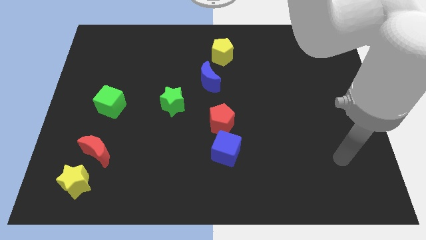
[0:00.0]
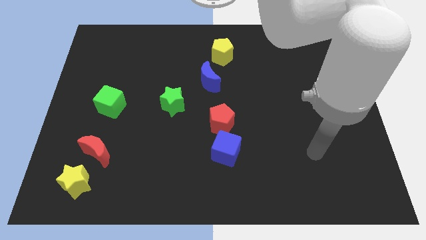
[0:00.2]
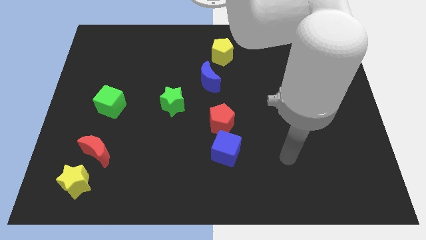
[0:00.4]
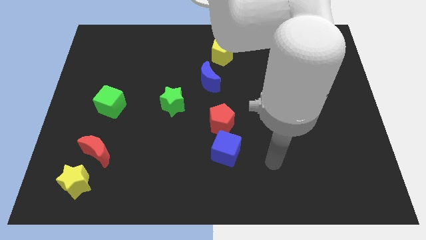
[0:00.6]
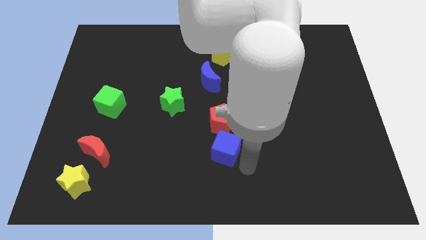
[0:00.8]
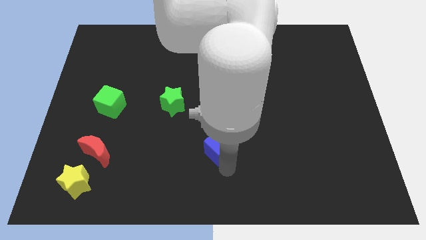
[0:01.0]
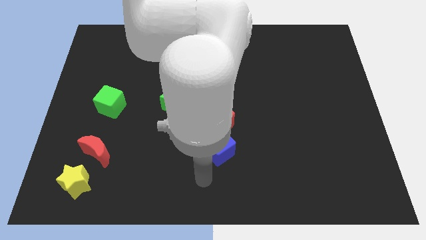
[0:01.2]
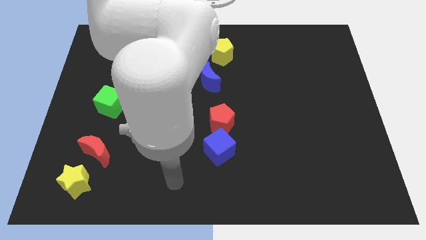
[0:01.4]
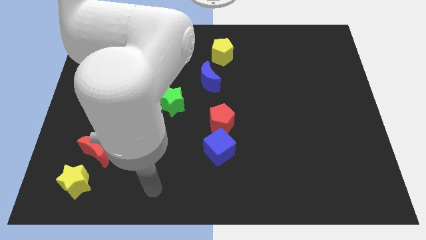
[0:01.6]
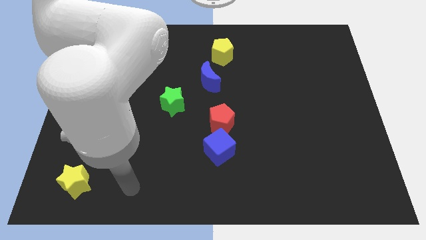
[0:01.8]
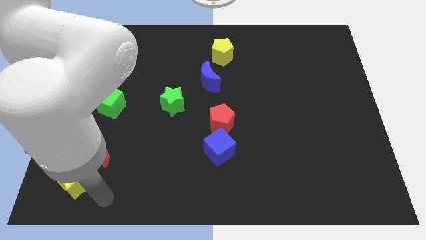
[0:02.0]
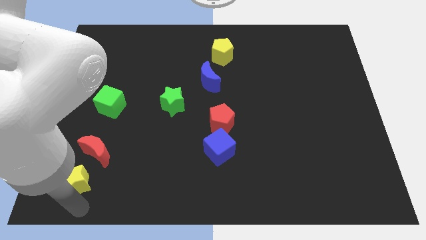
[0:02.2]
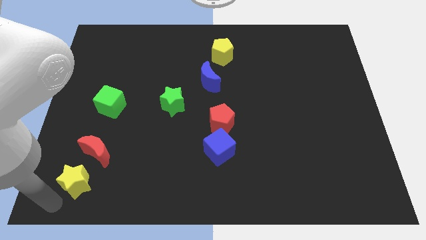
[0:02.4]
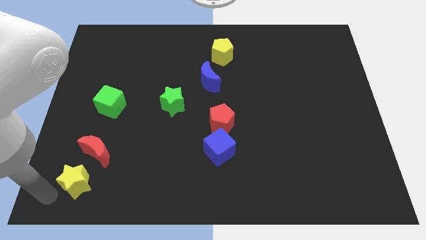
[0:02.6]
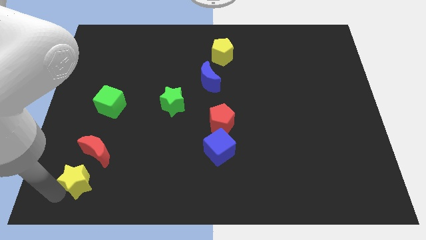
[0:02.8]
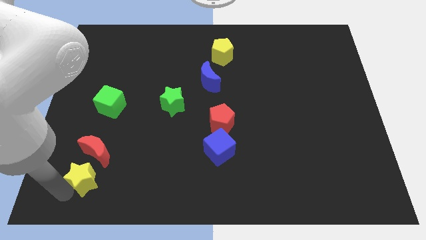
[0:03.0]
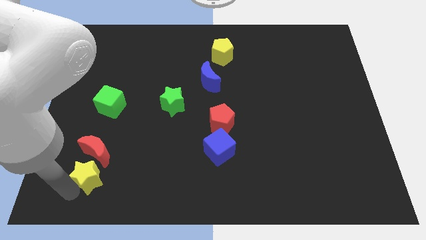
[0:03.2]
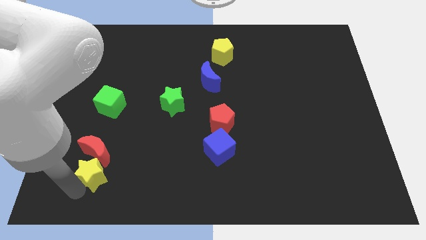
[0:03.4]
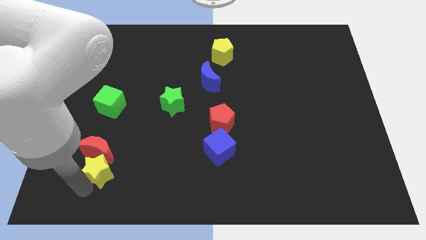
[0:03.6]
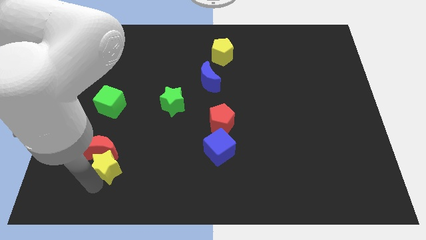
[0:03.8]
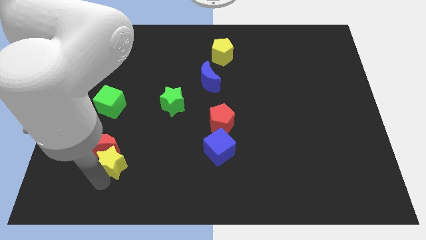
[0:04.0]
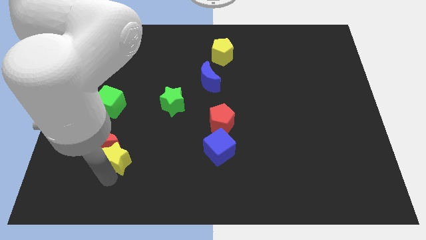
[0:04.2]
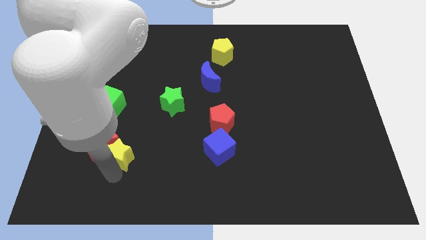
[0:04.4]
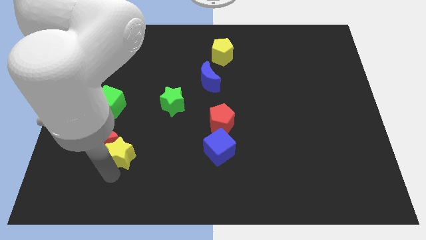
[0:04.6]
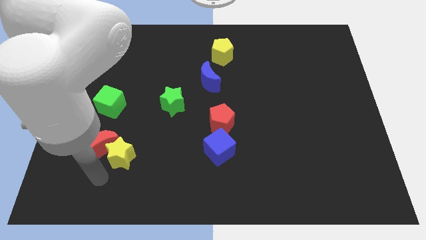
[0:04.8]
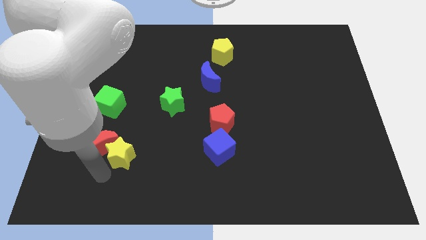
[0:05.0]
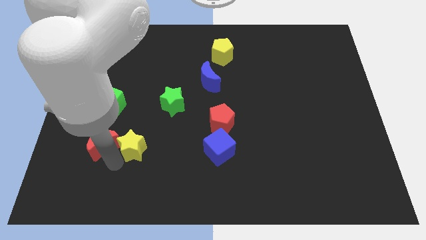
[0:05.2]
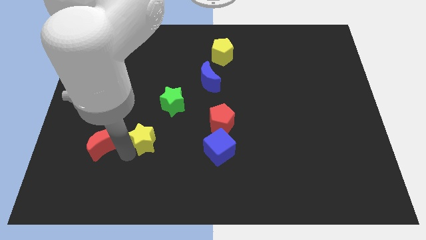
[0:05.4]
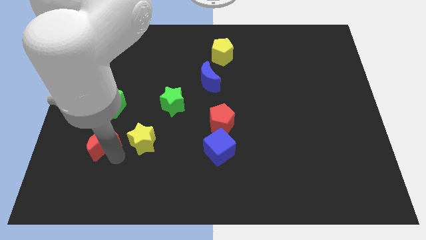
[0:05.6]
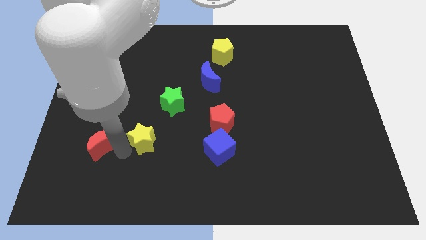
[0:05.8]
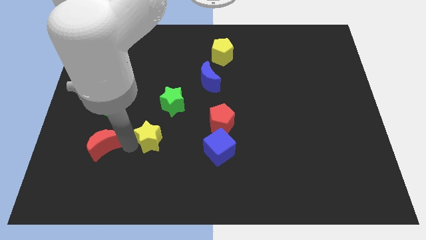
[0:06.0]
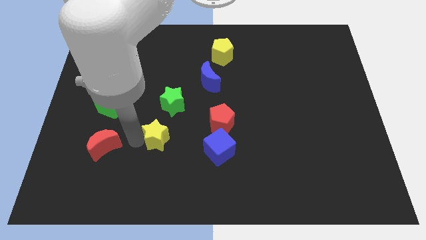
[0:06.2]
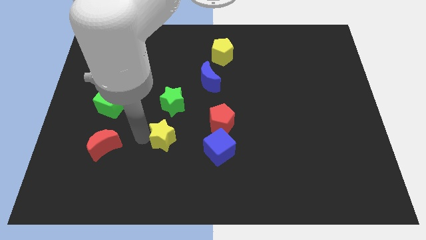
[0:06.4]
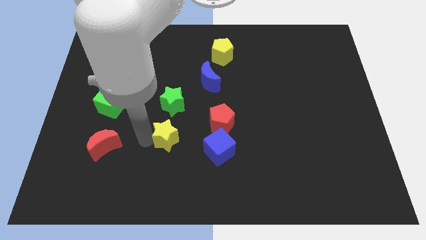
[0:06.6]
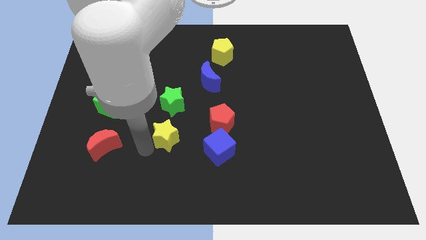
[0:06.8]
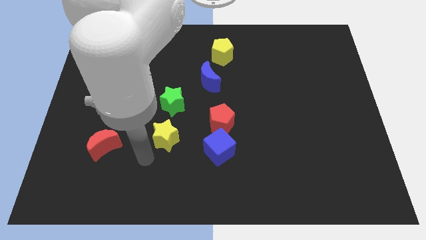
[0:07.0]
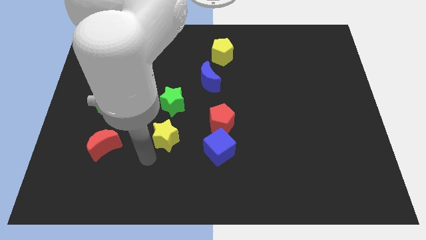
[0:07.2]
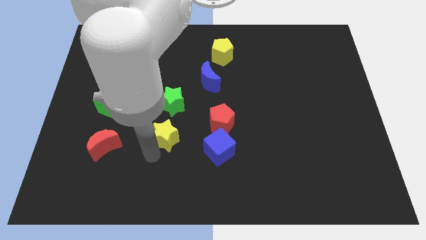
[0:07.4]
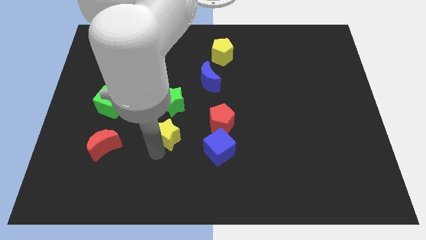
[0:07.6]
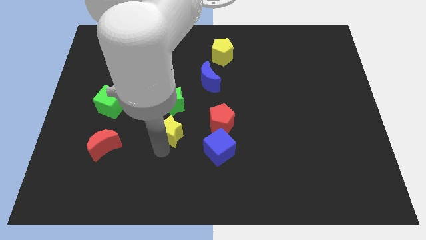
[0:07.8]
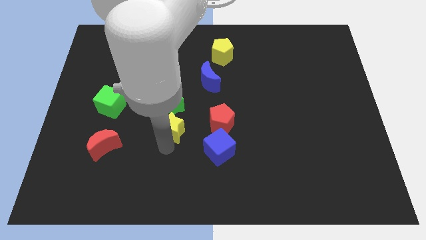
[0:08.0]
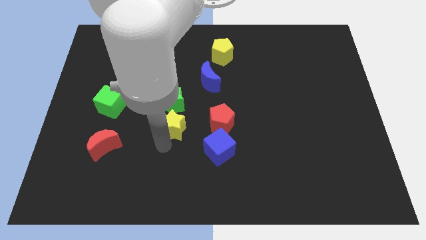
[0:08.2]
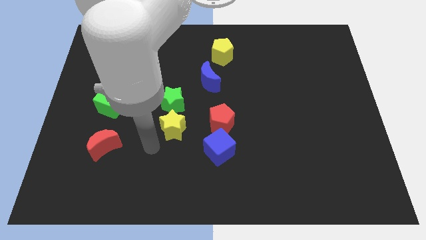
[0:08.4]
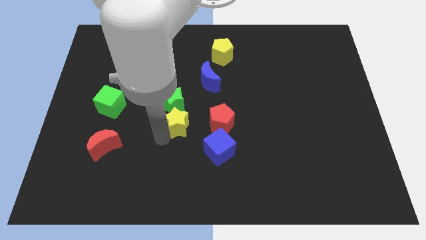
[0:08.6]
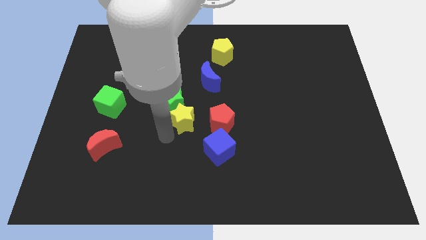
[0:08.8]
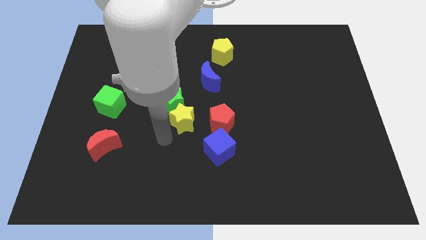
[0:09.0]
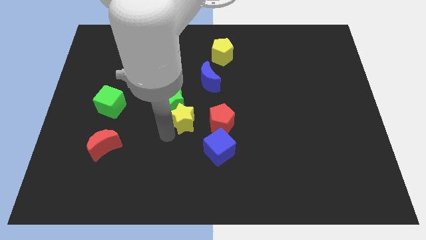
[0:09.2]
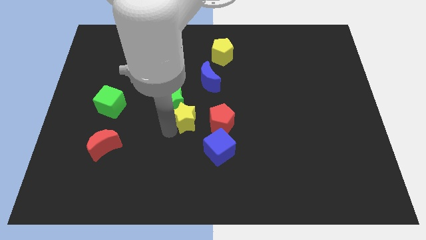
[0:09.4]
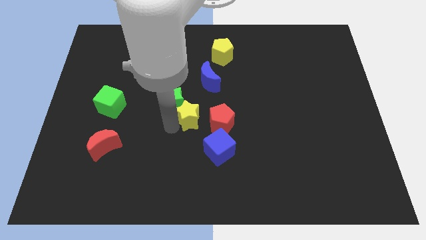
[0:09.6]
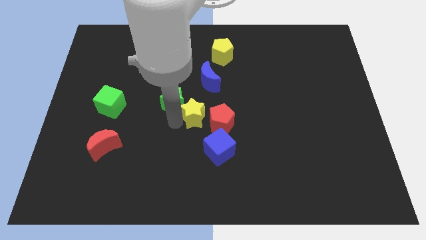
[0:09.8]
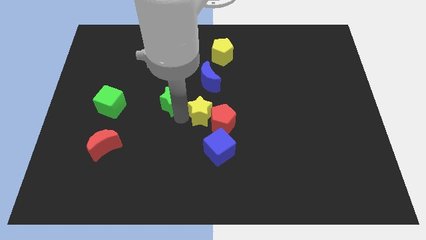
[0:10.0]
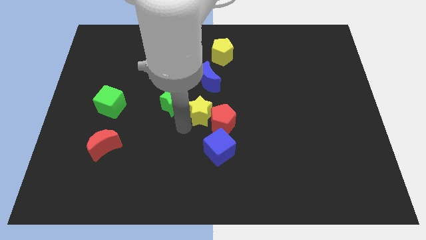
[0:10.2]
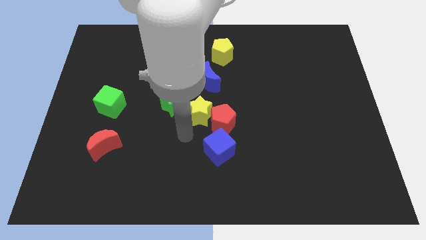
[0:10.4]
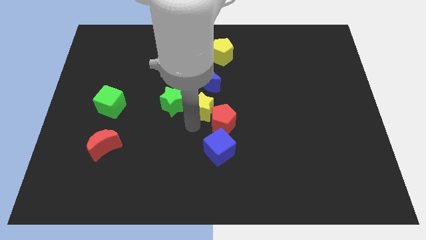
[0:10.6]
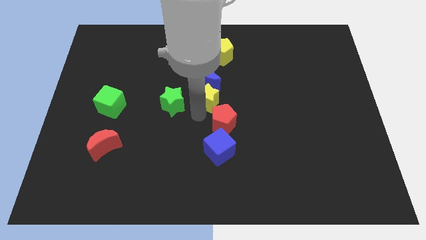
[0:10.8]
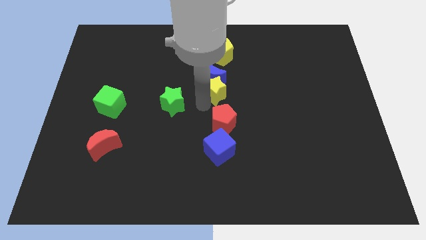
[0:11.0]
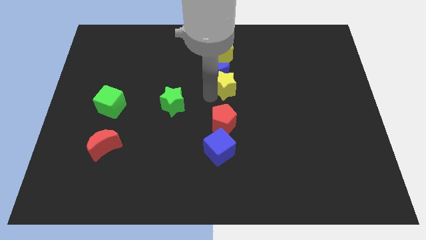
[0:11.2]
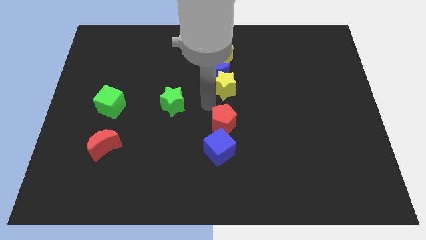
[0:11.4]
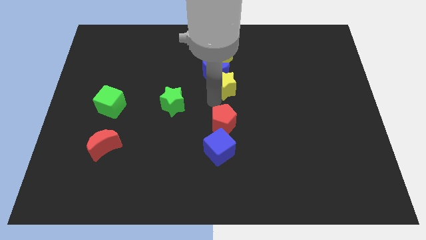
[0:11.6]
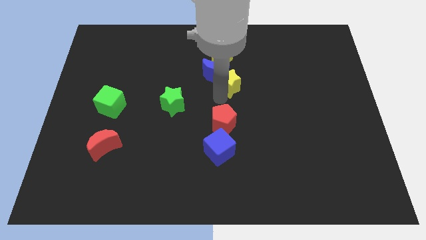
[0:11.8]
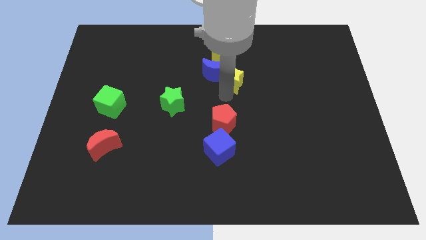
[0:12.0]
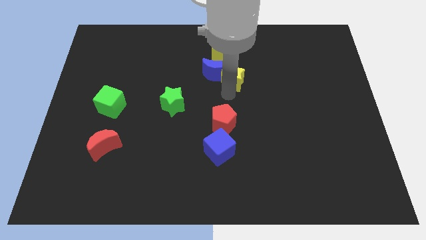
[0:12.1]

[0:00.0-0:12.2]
slide the yellow star to the bottom right side of the yellow pentagon

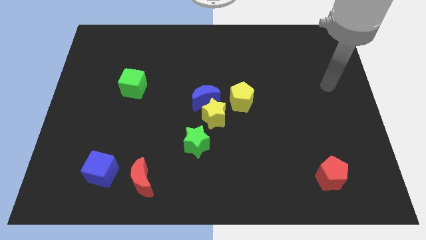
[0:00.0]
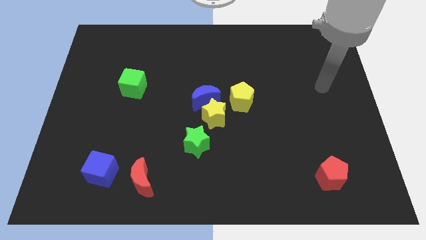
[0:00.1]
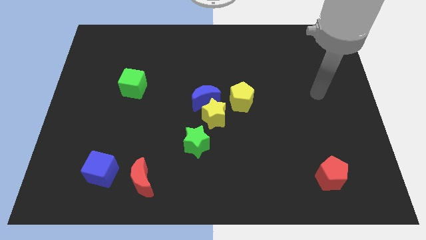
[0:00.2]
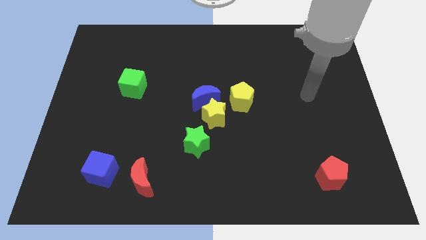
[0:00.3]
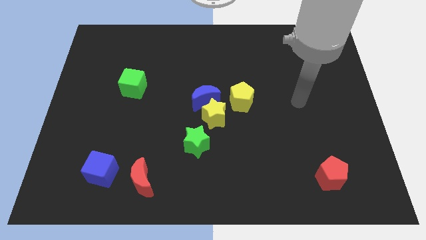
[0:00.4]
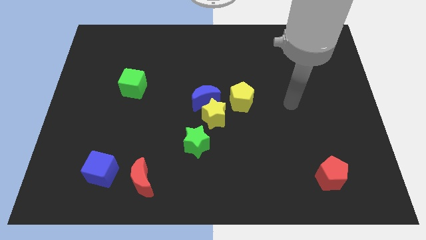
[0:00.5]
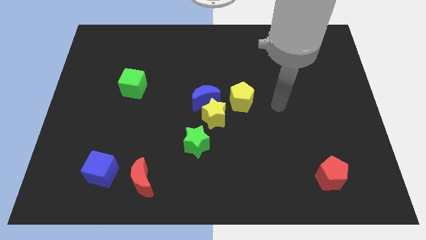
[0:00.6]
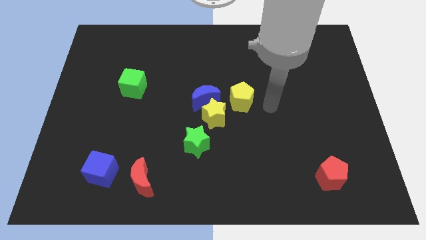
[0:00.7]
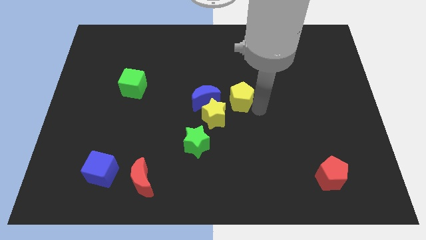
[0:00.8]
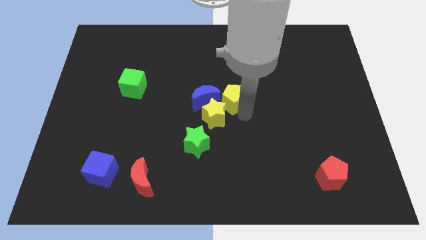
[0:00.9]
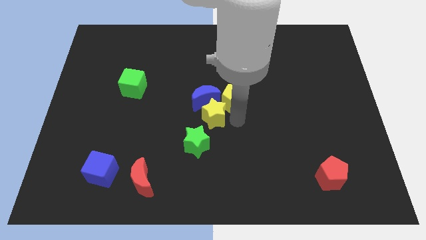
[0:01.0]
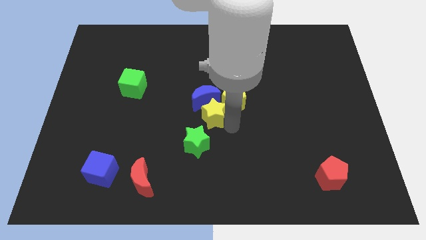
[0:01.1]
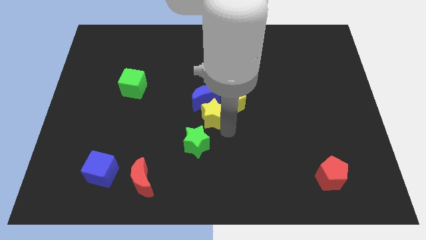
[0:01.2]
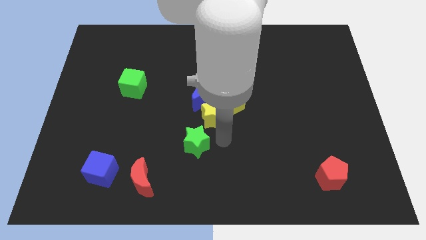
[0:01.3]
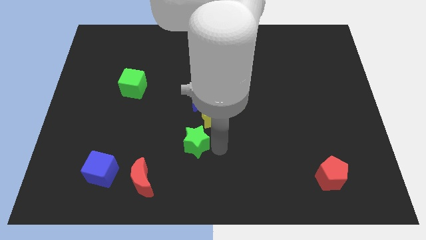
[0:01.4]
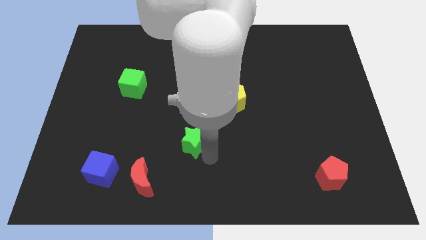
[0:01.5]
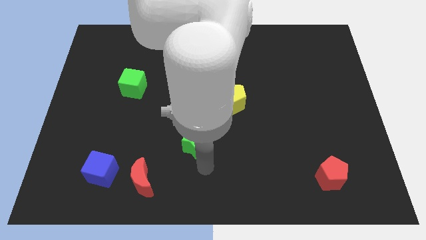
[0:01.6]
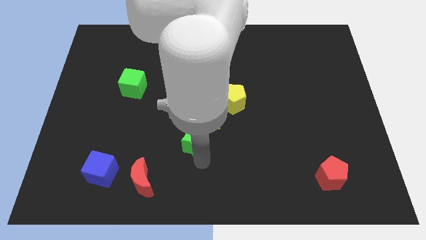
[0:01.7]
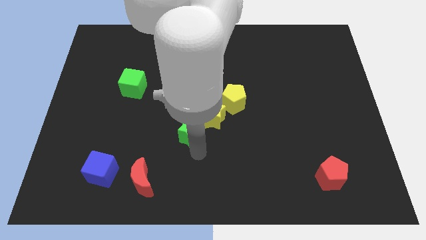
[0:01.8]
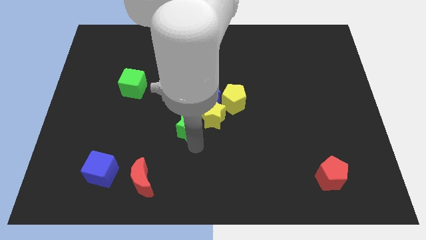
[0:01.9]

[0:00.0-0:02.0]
slide the green star to the bottom left side of the blue moon
